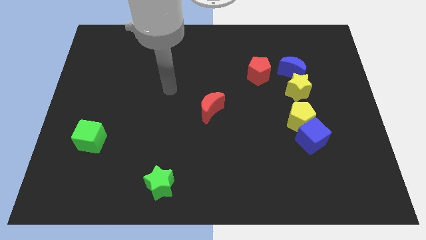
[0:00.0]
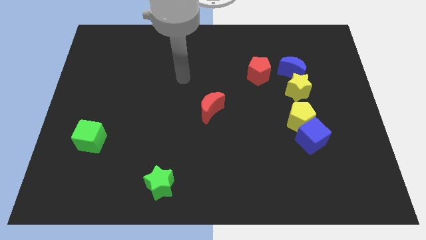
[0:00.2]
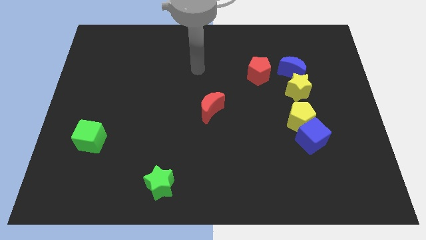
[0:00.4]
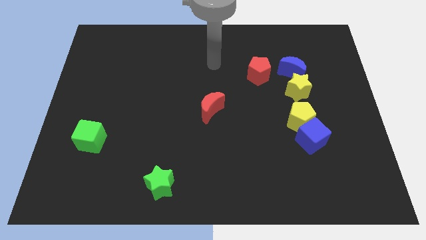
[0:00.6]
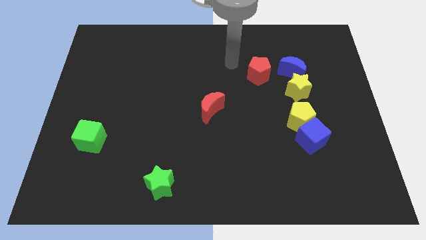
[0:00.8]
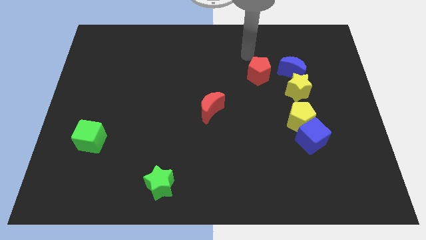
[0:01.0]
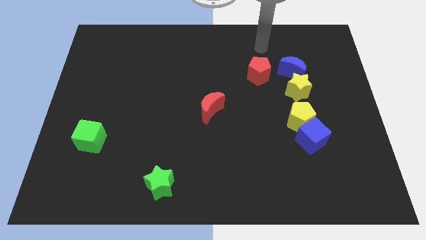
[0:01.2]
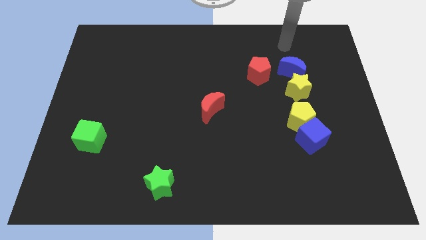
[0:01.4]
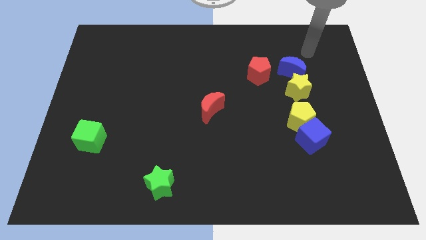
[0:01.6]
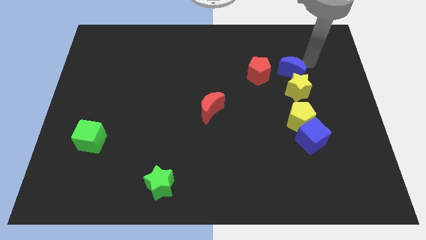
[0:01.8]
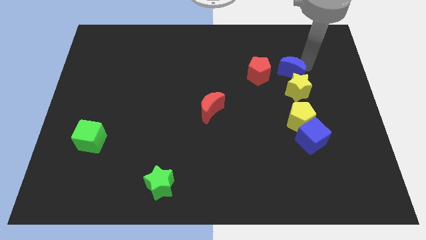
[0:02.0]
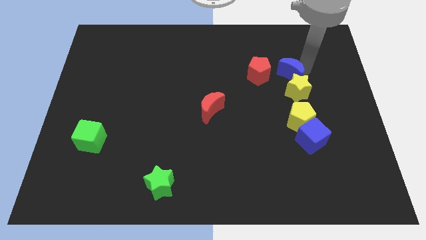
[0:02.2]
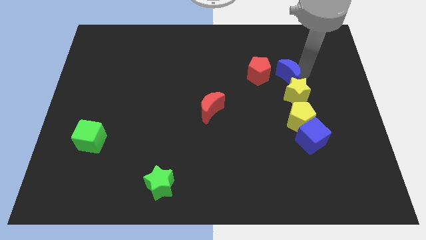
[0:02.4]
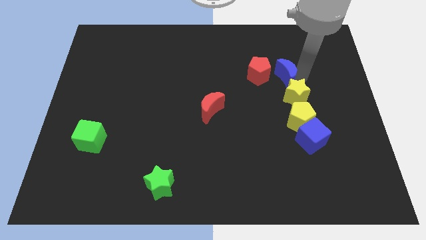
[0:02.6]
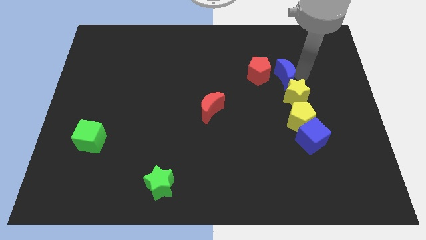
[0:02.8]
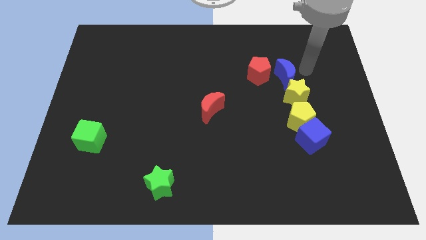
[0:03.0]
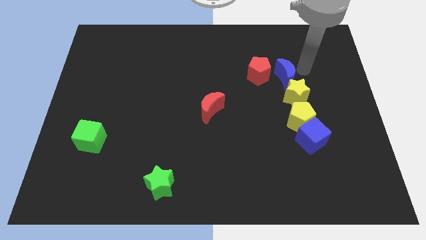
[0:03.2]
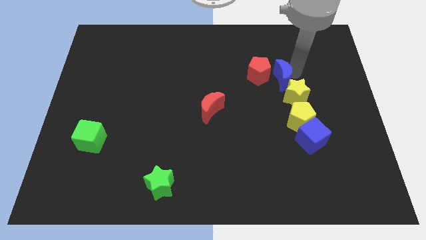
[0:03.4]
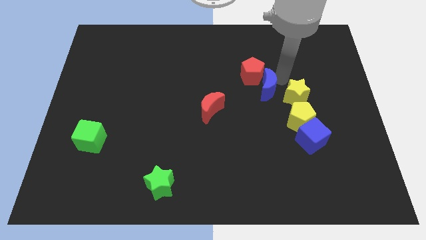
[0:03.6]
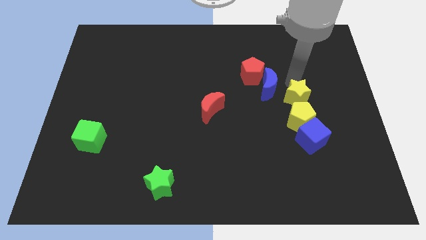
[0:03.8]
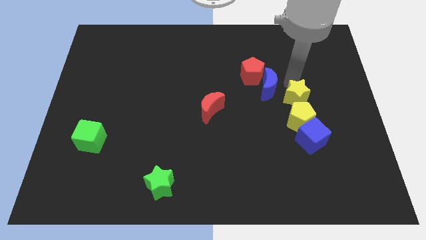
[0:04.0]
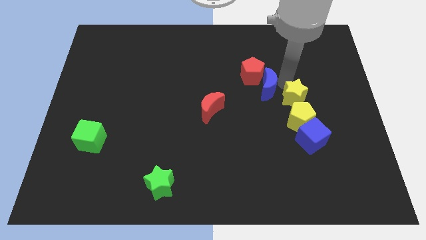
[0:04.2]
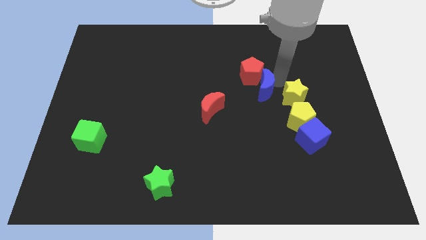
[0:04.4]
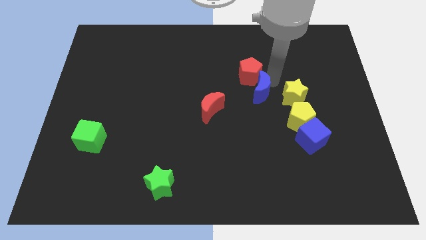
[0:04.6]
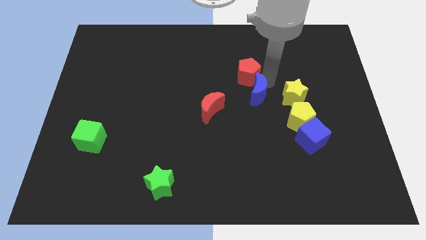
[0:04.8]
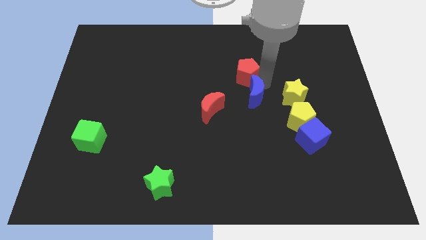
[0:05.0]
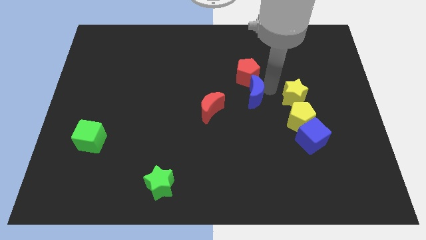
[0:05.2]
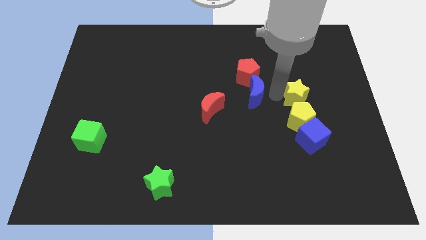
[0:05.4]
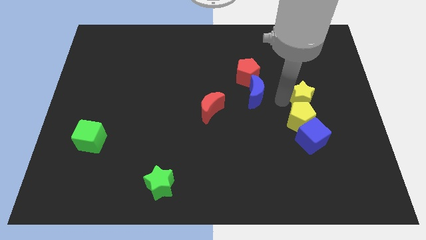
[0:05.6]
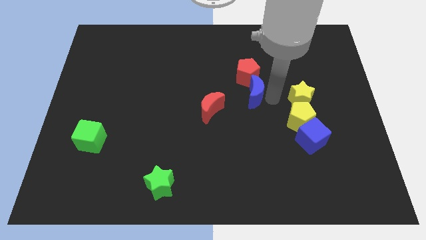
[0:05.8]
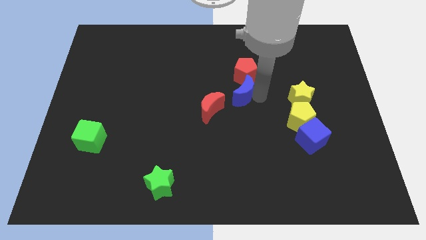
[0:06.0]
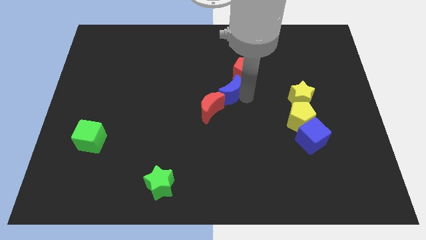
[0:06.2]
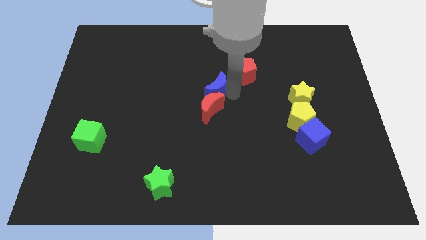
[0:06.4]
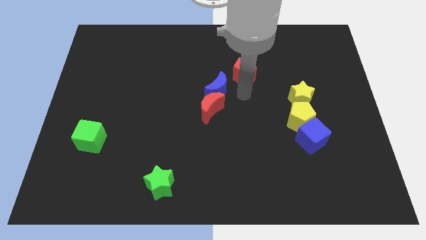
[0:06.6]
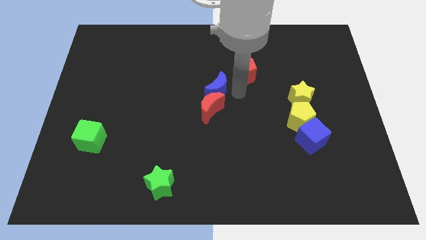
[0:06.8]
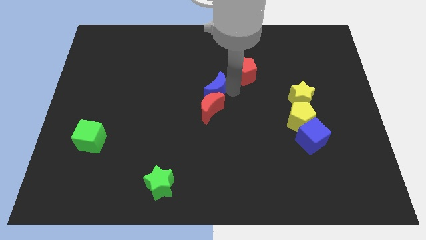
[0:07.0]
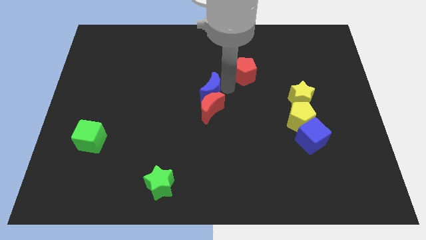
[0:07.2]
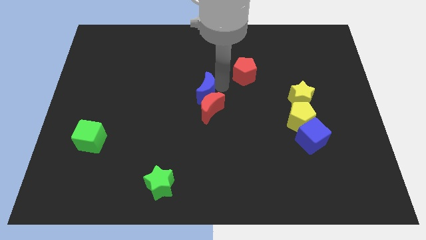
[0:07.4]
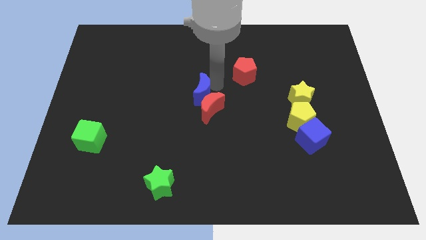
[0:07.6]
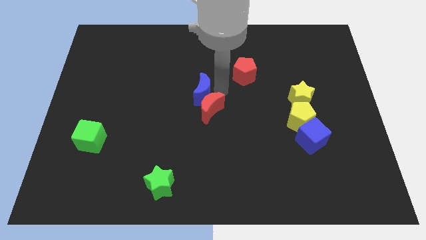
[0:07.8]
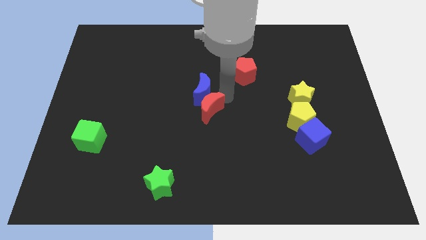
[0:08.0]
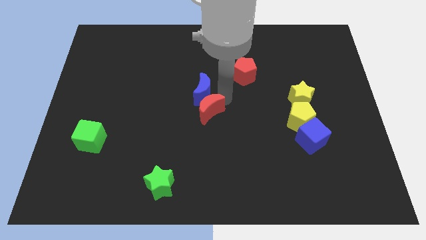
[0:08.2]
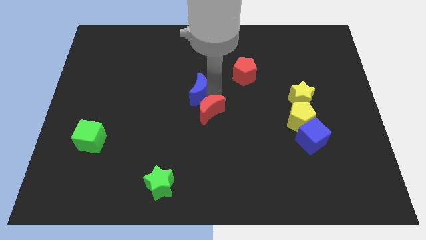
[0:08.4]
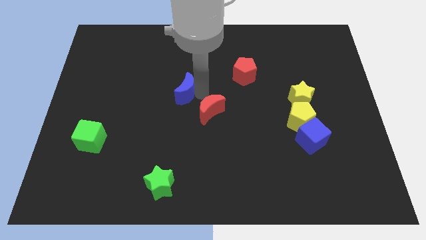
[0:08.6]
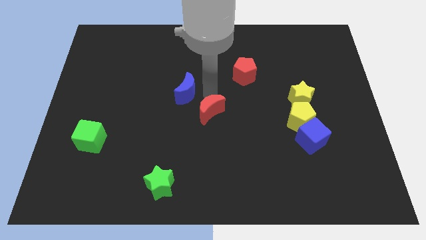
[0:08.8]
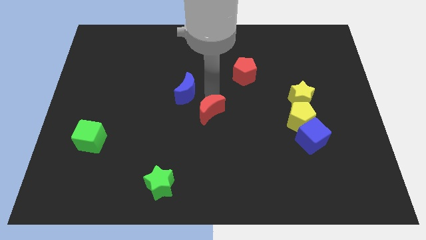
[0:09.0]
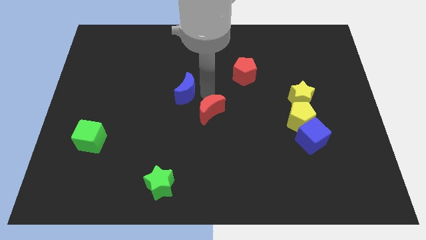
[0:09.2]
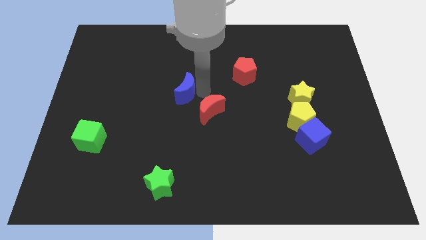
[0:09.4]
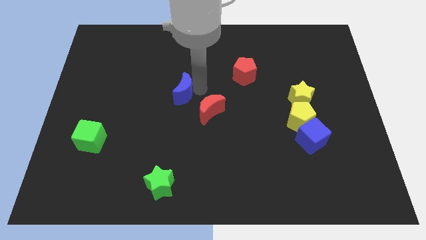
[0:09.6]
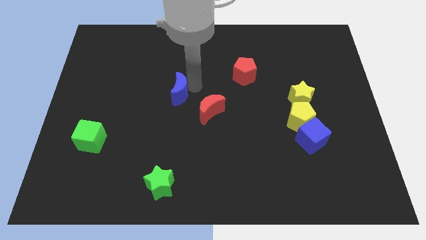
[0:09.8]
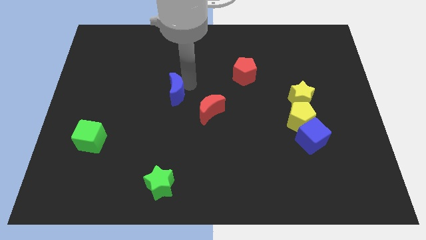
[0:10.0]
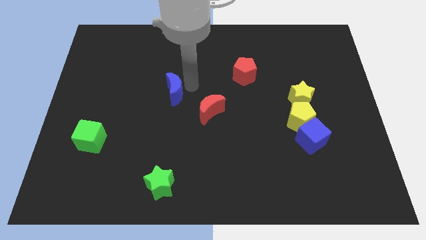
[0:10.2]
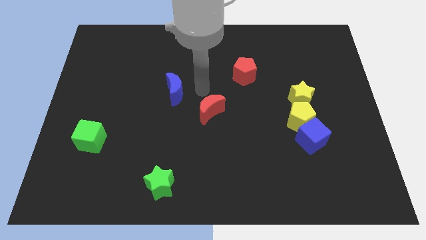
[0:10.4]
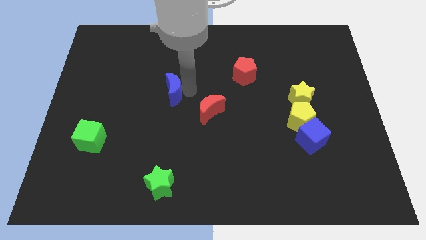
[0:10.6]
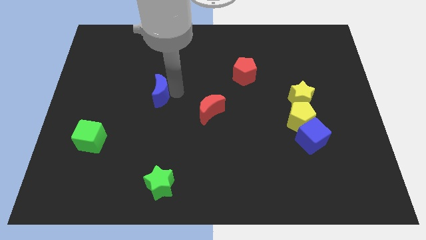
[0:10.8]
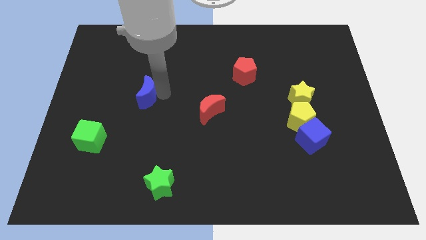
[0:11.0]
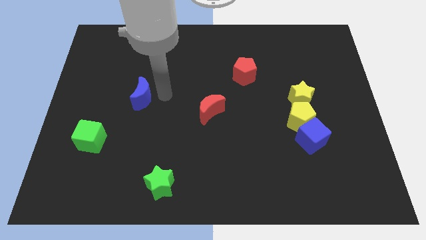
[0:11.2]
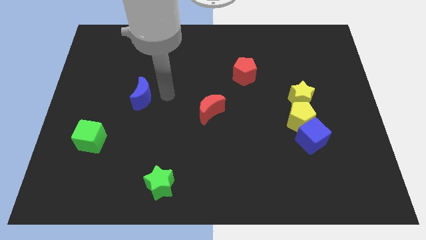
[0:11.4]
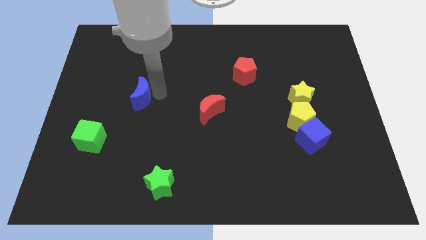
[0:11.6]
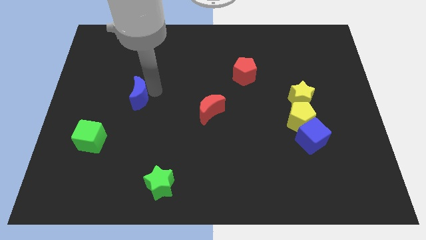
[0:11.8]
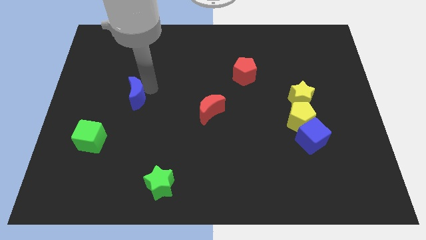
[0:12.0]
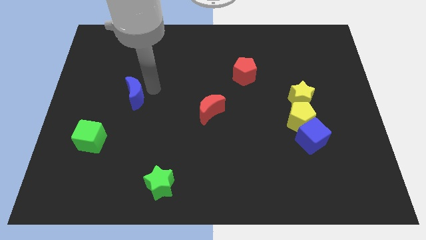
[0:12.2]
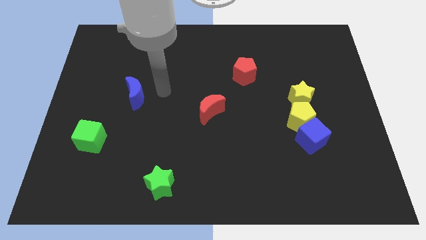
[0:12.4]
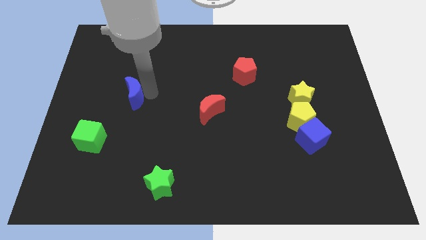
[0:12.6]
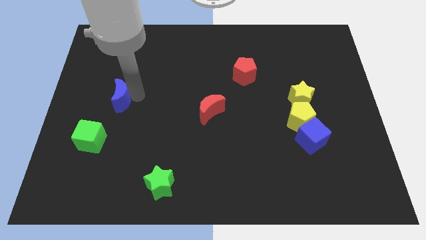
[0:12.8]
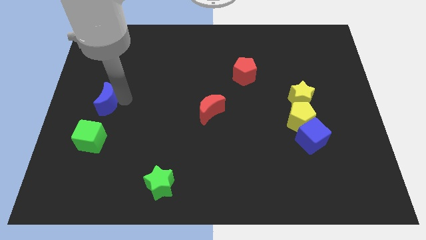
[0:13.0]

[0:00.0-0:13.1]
slide the blue moon to the center left

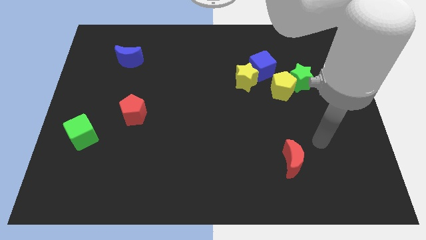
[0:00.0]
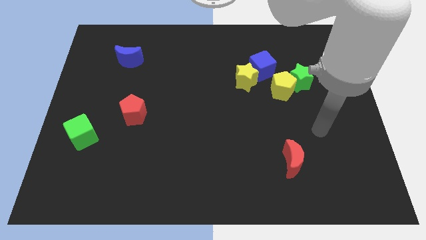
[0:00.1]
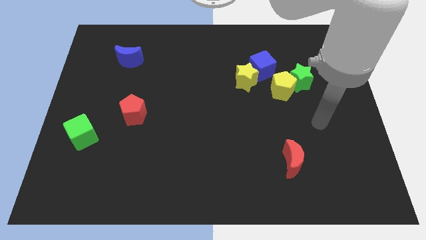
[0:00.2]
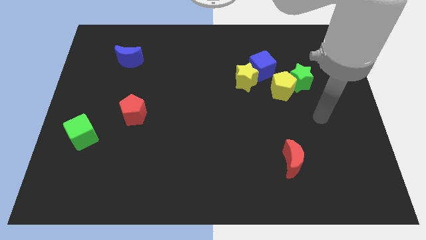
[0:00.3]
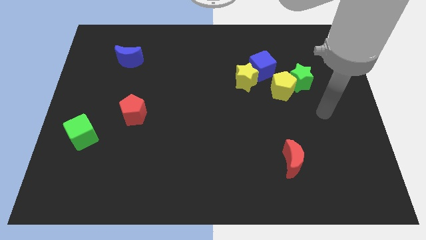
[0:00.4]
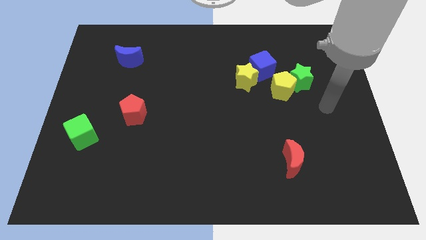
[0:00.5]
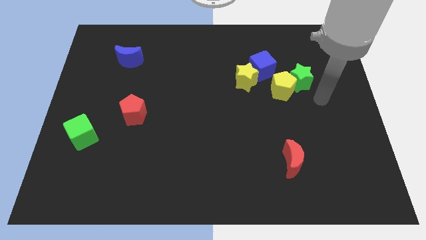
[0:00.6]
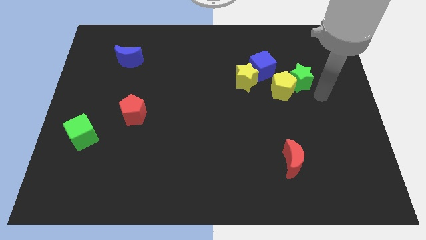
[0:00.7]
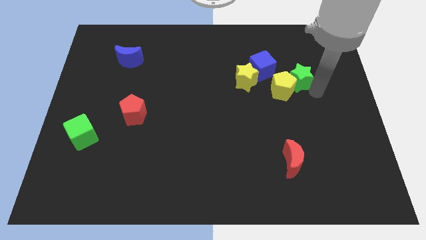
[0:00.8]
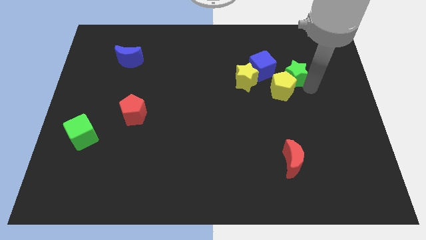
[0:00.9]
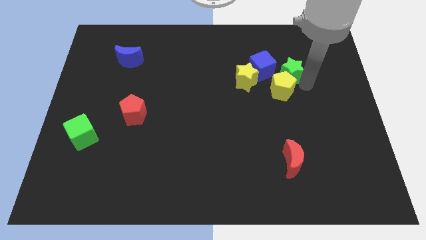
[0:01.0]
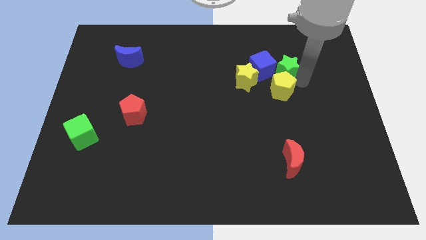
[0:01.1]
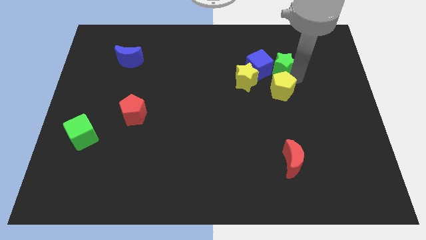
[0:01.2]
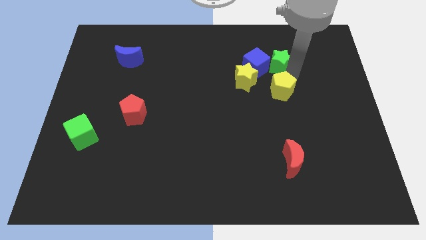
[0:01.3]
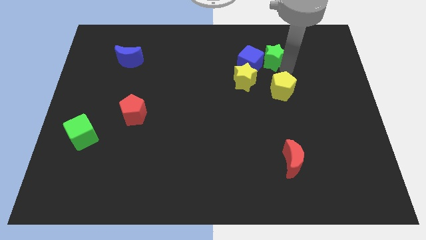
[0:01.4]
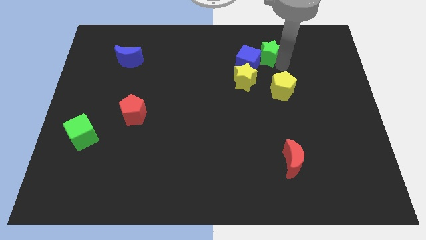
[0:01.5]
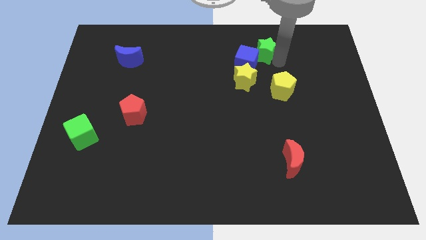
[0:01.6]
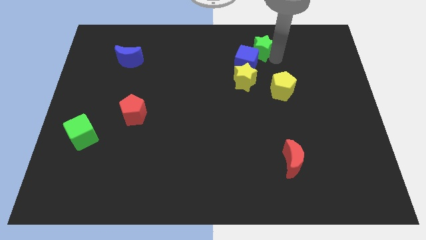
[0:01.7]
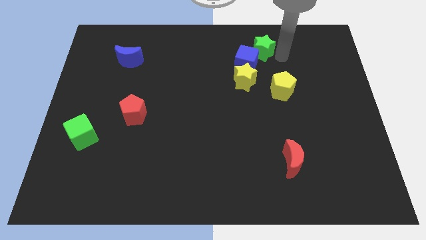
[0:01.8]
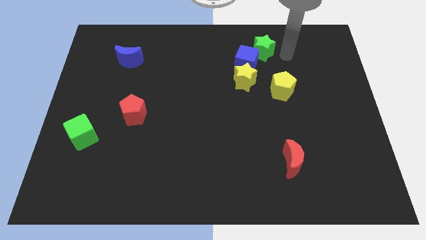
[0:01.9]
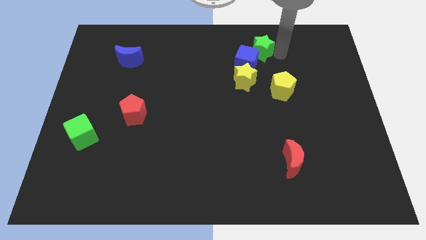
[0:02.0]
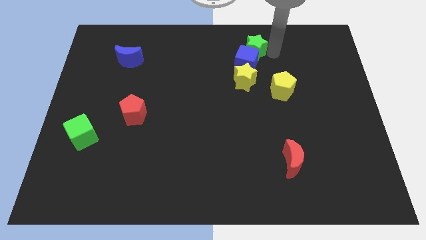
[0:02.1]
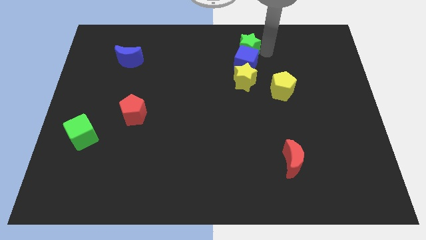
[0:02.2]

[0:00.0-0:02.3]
move the green star to the top side
